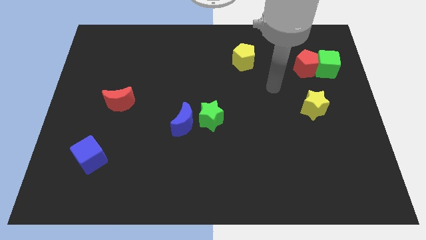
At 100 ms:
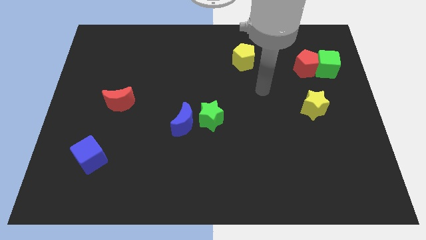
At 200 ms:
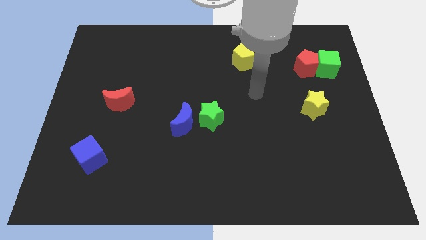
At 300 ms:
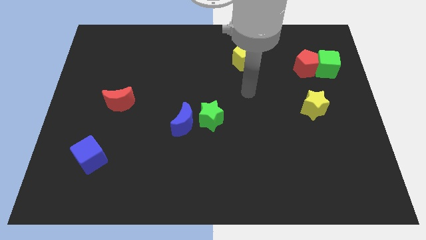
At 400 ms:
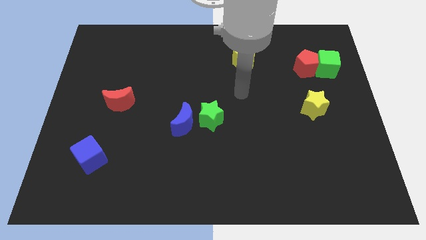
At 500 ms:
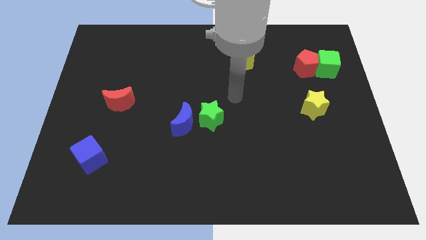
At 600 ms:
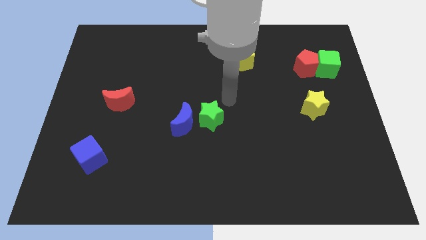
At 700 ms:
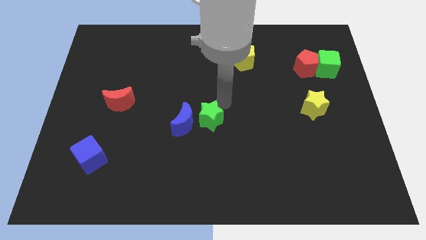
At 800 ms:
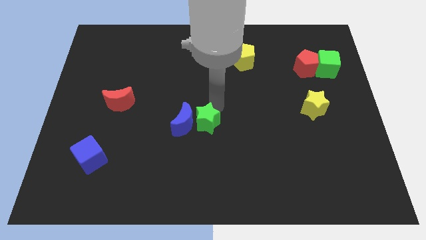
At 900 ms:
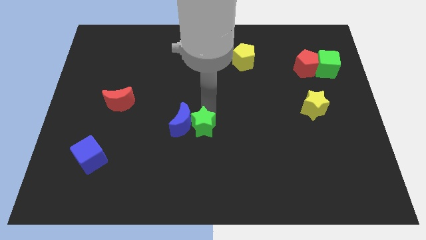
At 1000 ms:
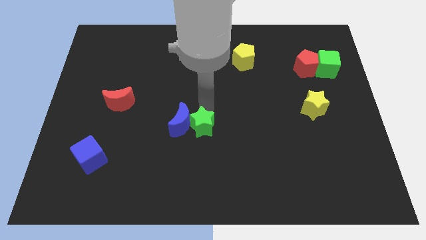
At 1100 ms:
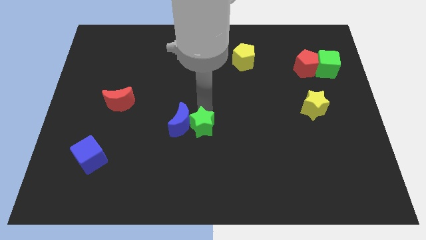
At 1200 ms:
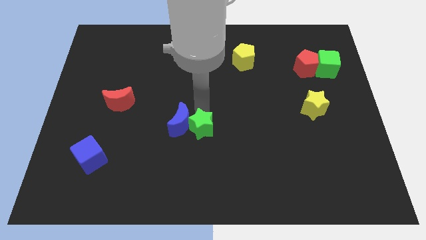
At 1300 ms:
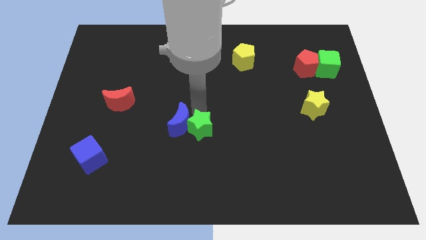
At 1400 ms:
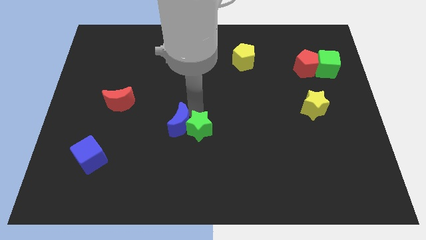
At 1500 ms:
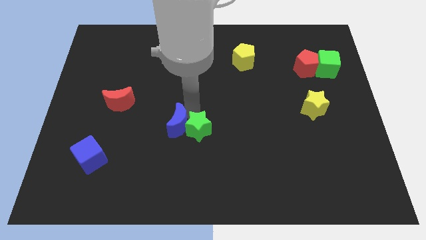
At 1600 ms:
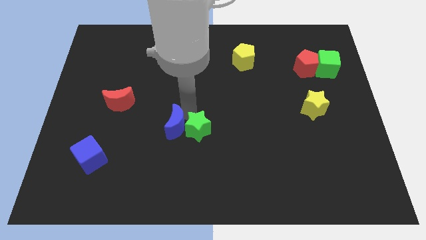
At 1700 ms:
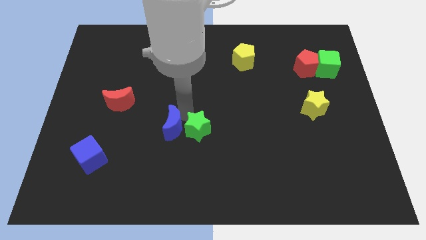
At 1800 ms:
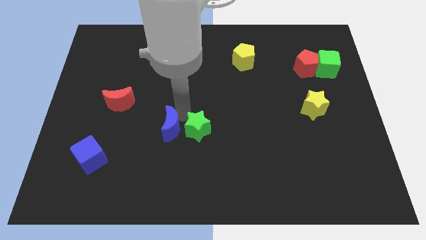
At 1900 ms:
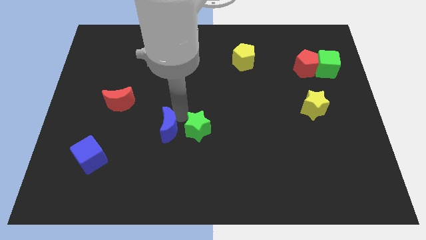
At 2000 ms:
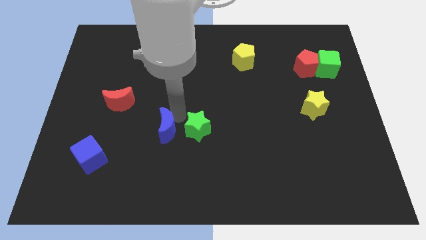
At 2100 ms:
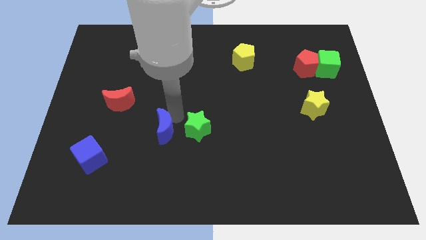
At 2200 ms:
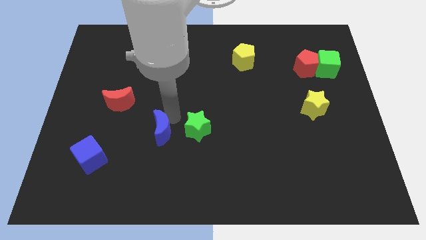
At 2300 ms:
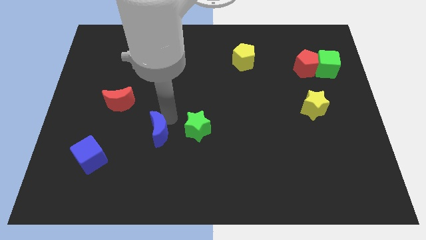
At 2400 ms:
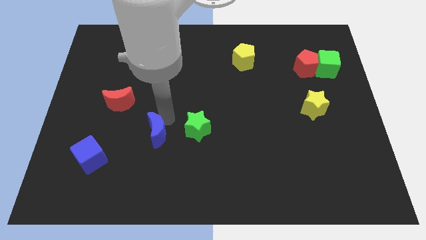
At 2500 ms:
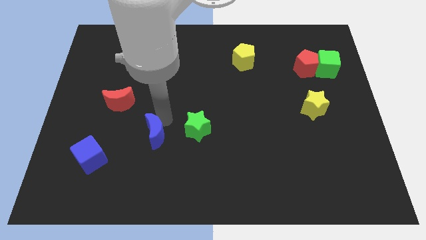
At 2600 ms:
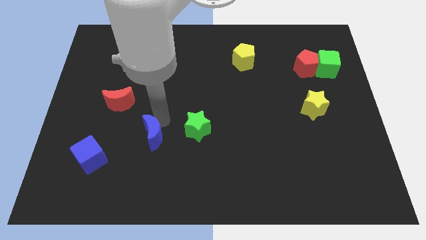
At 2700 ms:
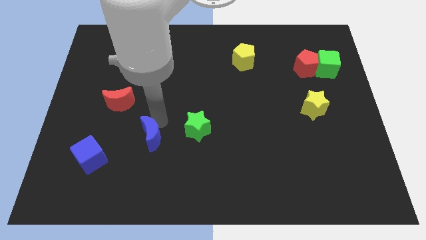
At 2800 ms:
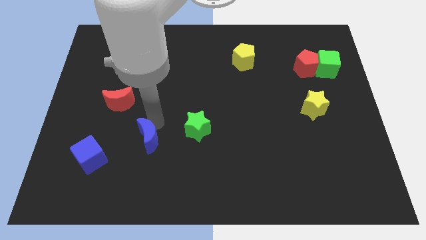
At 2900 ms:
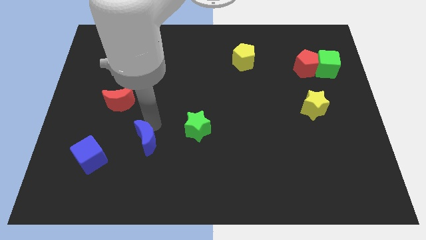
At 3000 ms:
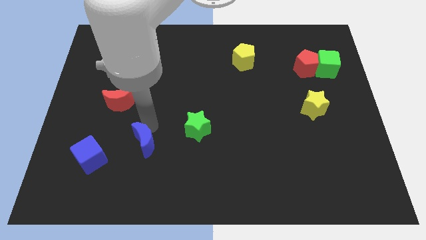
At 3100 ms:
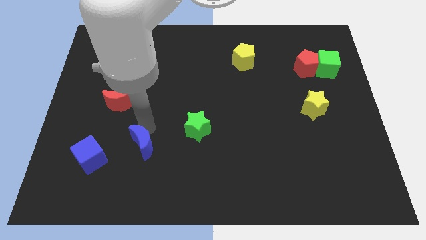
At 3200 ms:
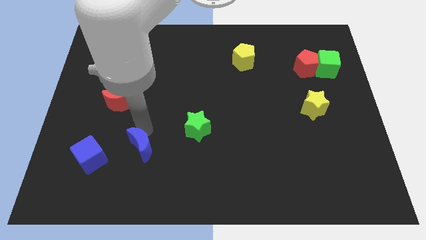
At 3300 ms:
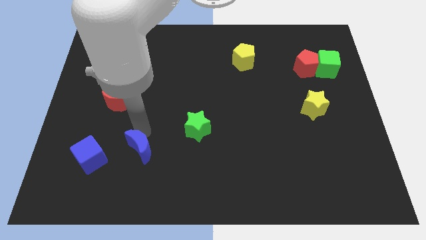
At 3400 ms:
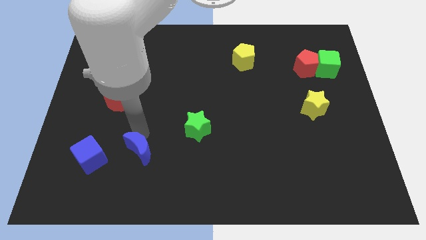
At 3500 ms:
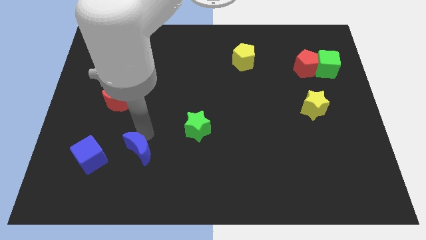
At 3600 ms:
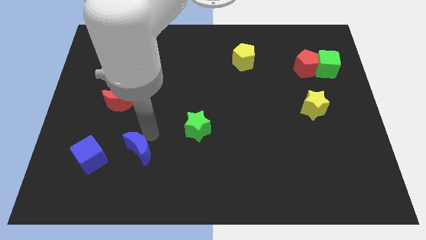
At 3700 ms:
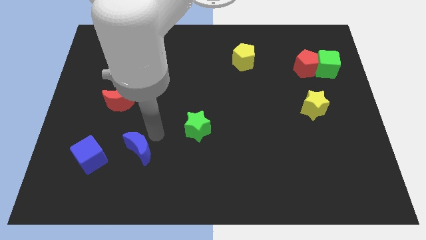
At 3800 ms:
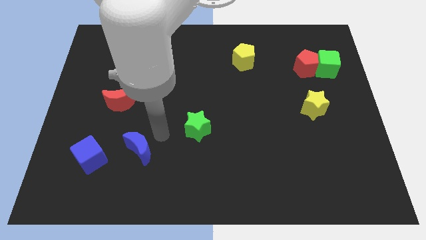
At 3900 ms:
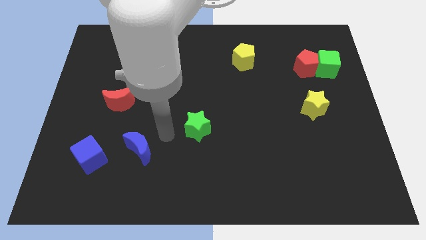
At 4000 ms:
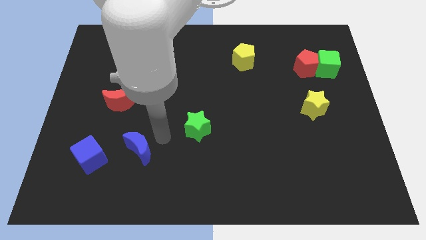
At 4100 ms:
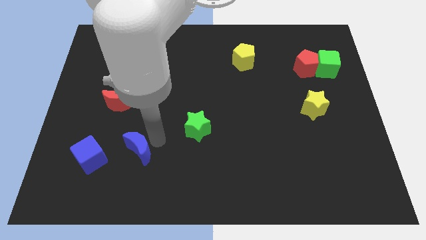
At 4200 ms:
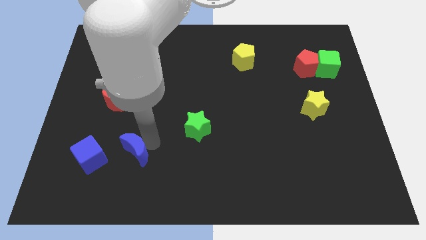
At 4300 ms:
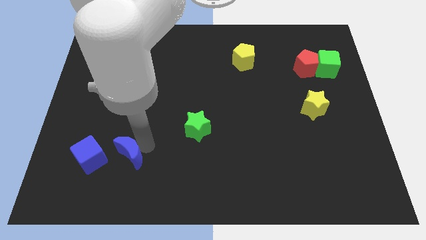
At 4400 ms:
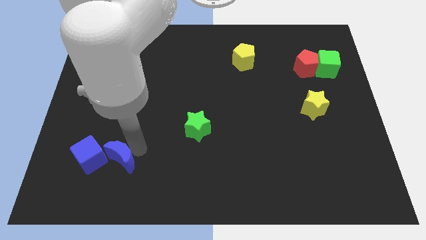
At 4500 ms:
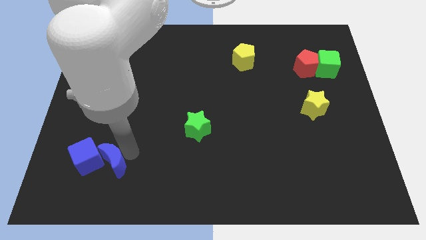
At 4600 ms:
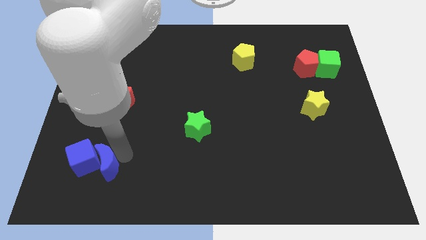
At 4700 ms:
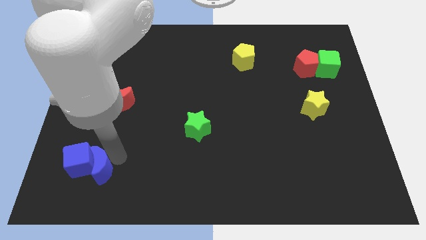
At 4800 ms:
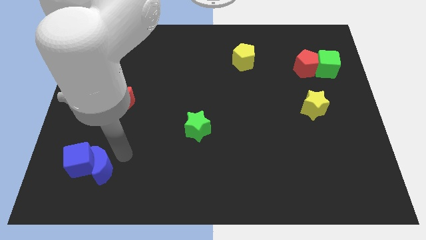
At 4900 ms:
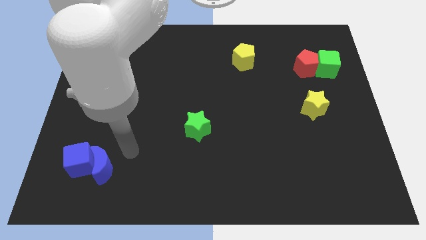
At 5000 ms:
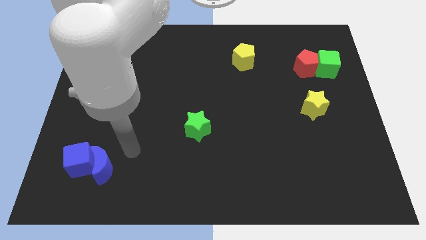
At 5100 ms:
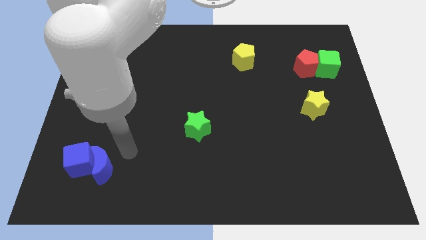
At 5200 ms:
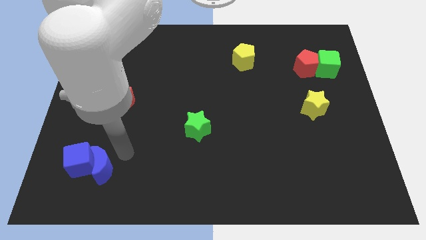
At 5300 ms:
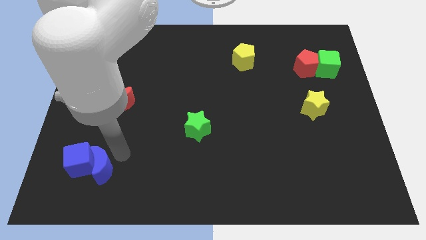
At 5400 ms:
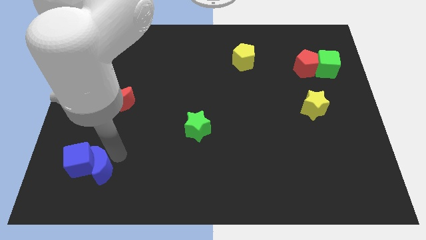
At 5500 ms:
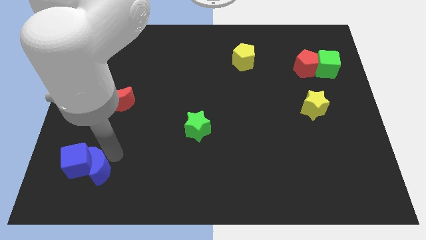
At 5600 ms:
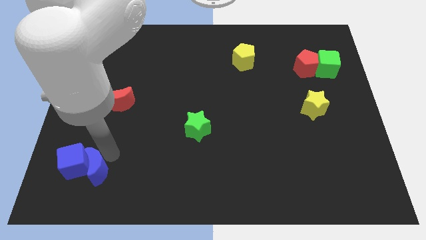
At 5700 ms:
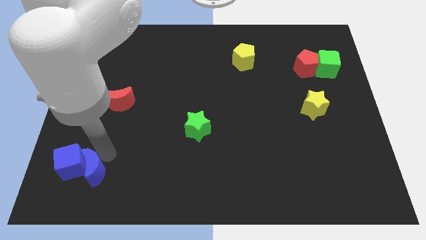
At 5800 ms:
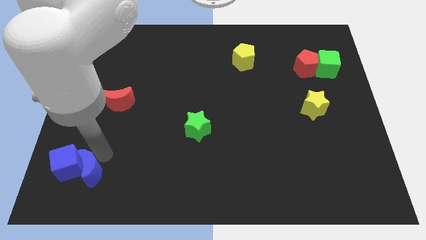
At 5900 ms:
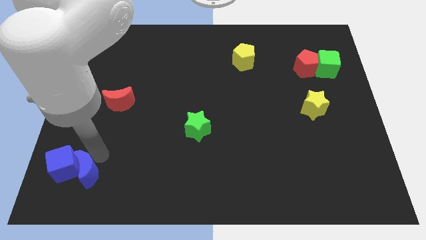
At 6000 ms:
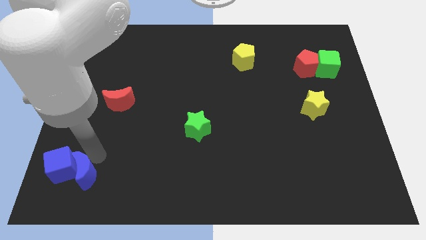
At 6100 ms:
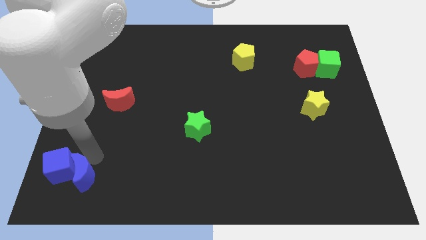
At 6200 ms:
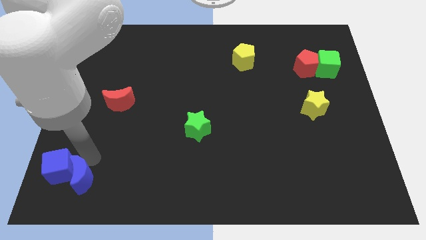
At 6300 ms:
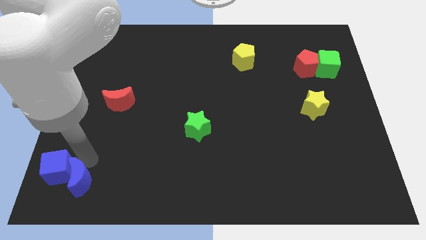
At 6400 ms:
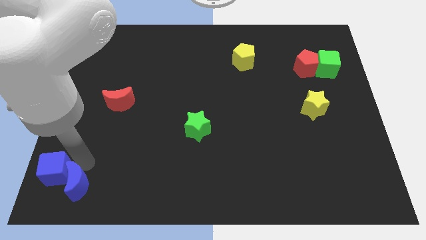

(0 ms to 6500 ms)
slide the blue moon to the bottom left corner
